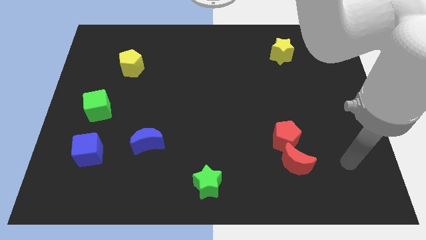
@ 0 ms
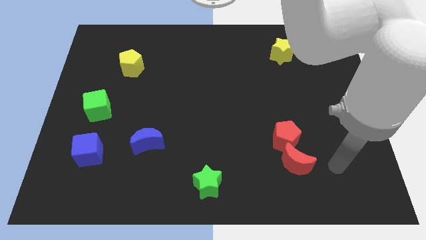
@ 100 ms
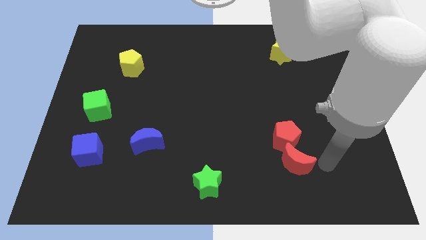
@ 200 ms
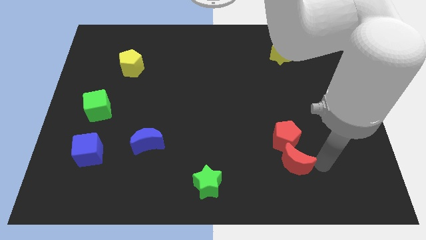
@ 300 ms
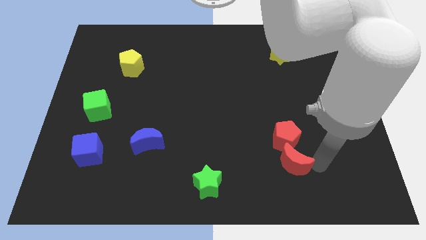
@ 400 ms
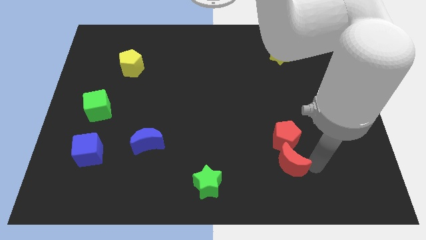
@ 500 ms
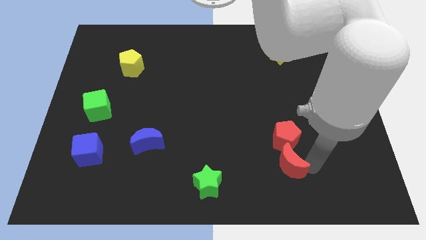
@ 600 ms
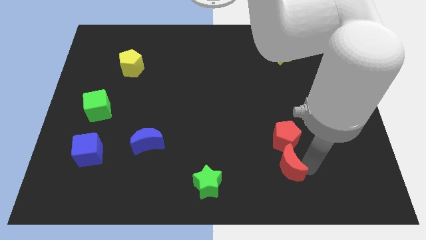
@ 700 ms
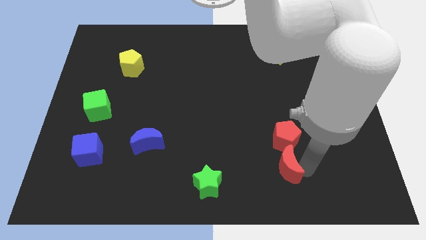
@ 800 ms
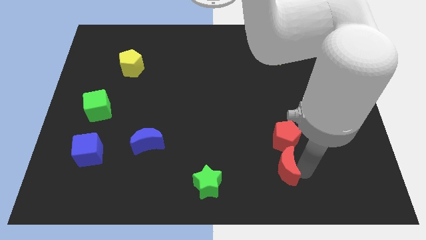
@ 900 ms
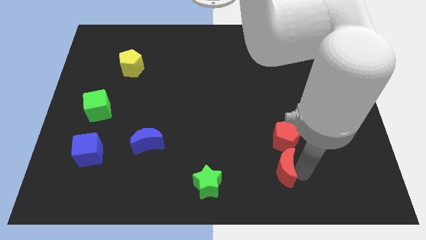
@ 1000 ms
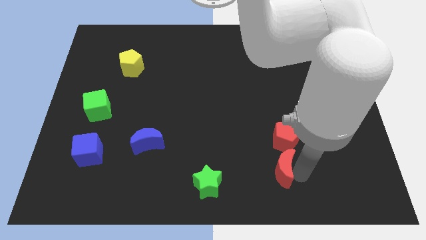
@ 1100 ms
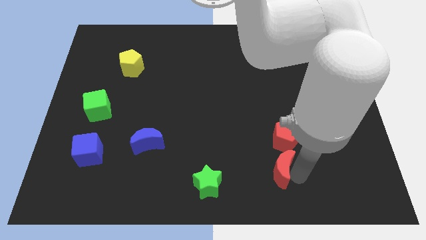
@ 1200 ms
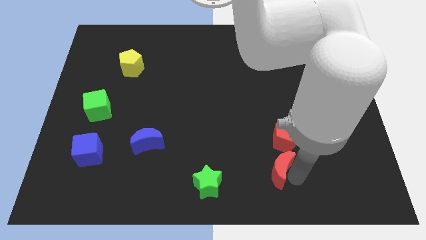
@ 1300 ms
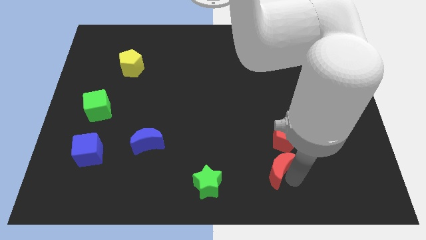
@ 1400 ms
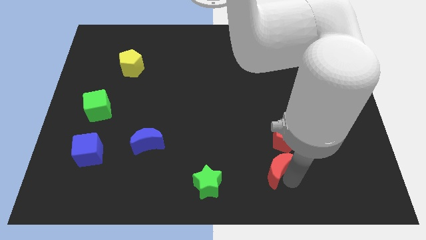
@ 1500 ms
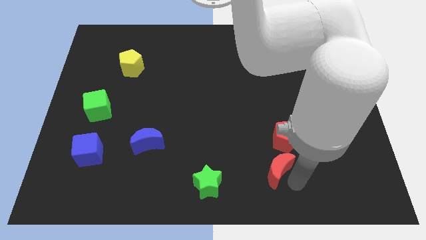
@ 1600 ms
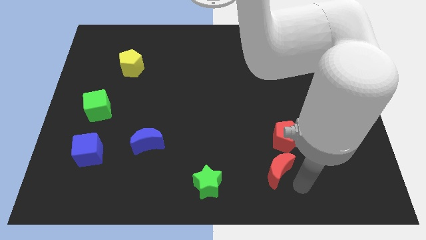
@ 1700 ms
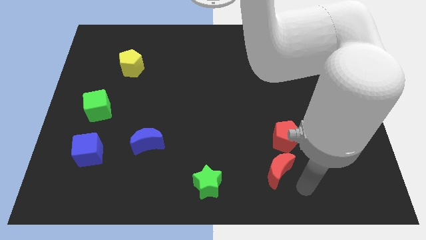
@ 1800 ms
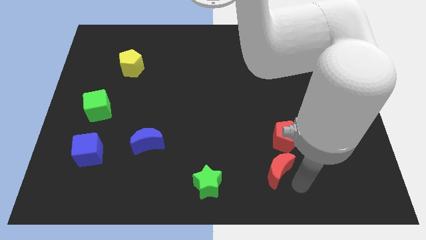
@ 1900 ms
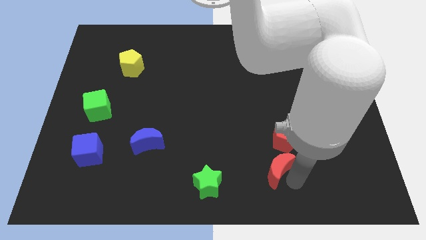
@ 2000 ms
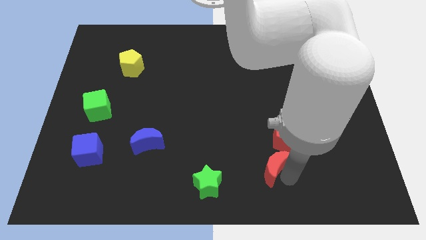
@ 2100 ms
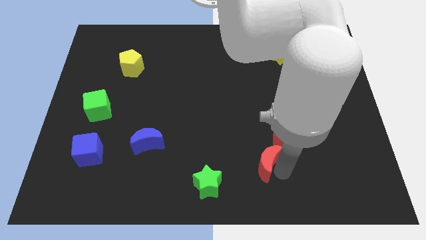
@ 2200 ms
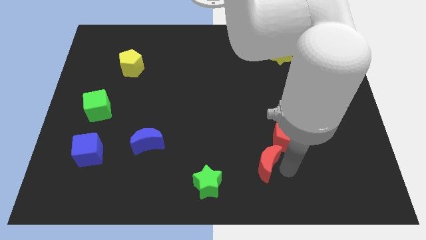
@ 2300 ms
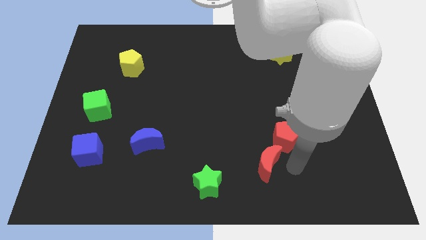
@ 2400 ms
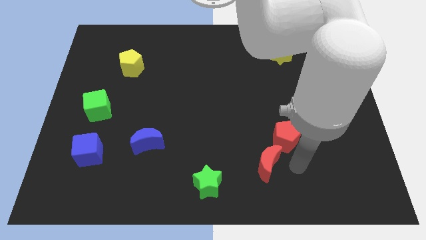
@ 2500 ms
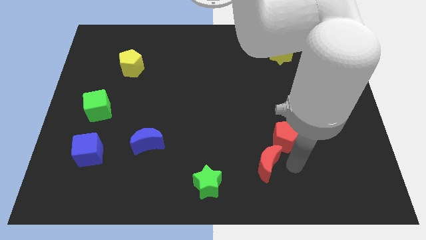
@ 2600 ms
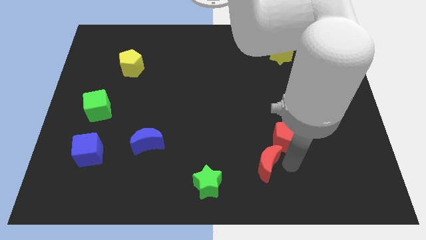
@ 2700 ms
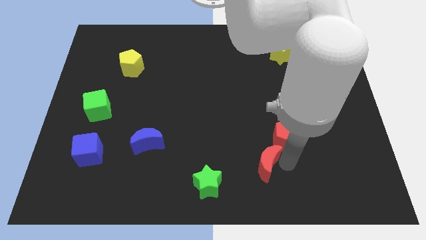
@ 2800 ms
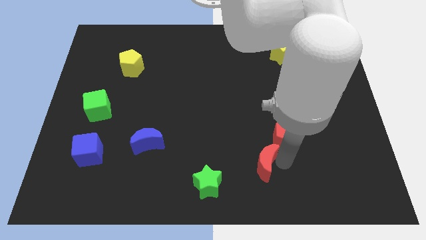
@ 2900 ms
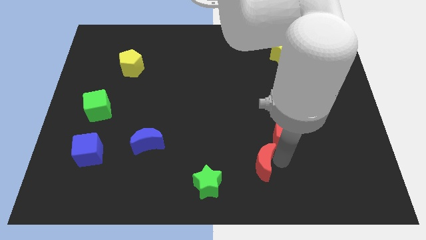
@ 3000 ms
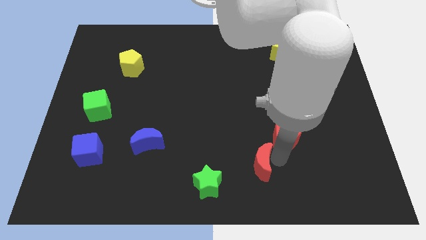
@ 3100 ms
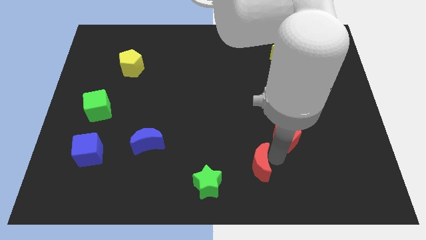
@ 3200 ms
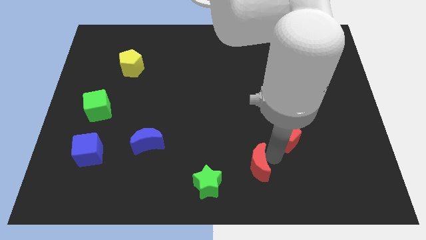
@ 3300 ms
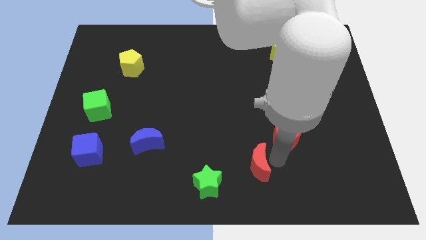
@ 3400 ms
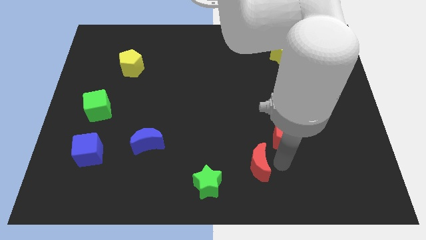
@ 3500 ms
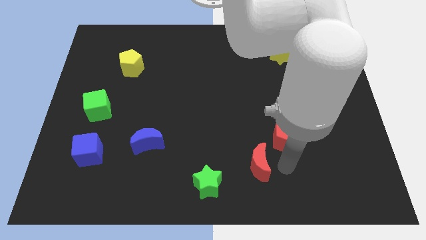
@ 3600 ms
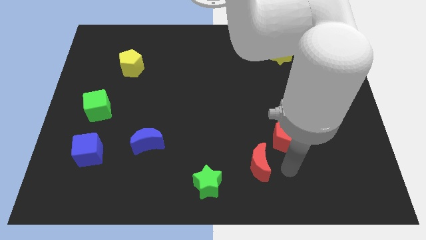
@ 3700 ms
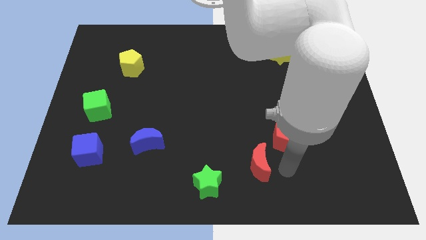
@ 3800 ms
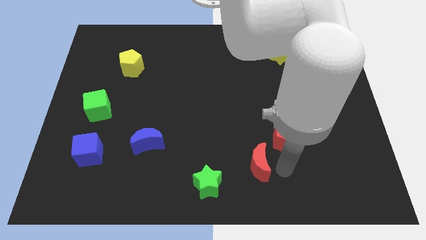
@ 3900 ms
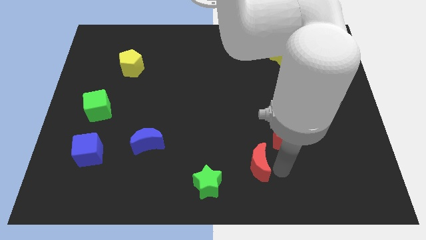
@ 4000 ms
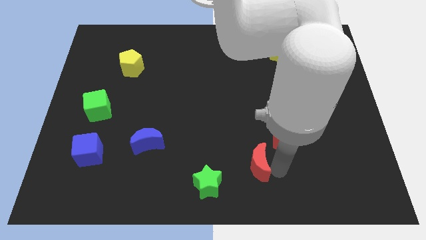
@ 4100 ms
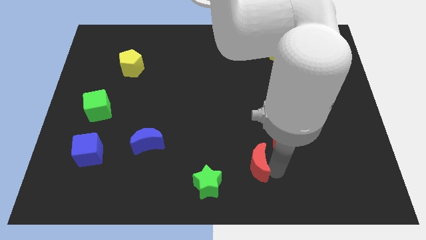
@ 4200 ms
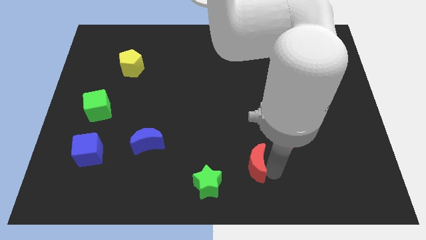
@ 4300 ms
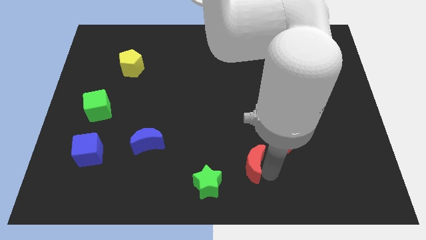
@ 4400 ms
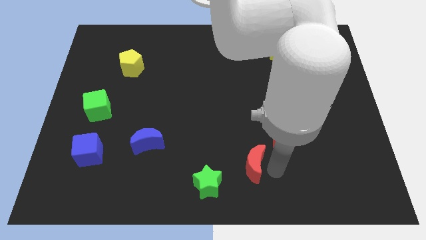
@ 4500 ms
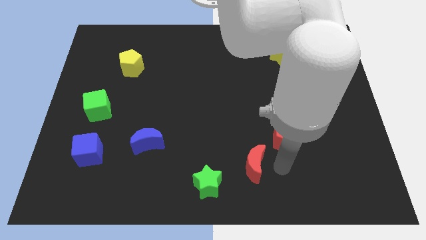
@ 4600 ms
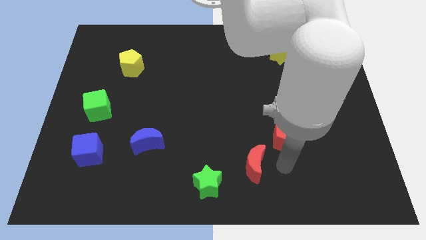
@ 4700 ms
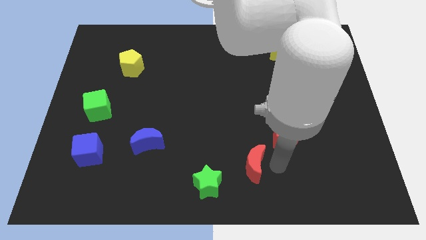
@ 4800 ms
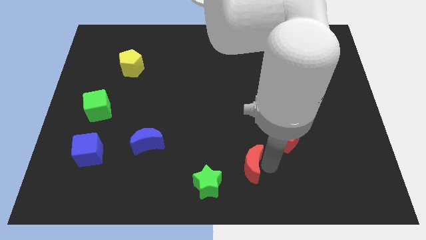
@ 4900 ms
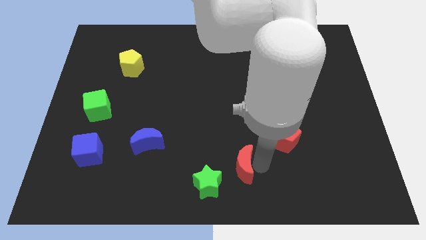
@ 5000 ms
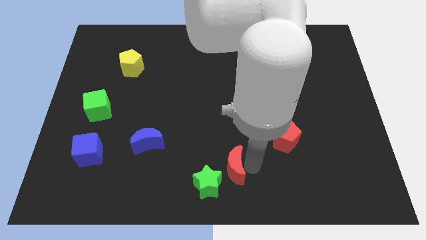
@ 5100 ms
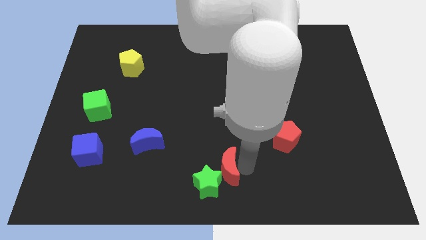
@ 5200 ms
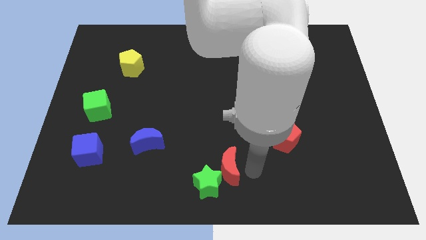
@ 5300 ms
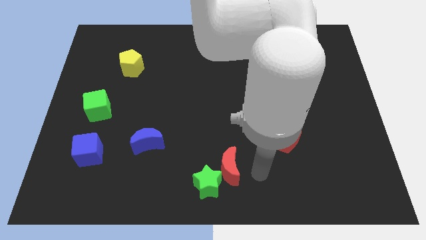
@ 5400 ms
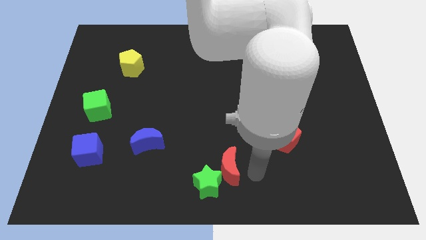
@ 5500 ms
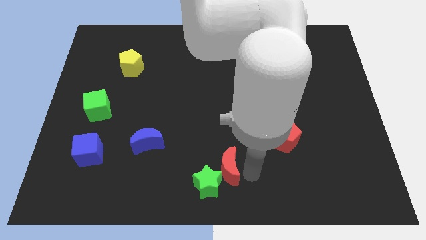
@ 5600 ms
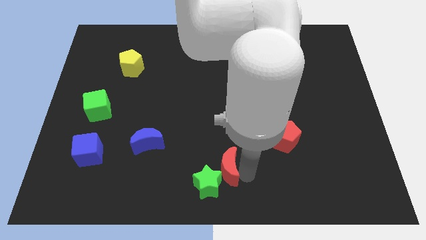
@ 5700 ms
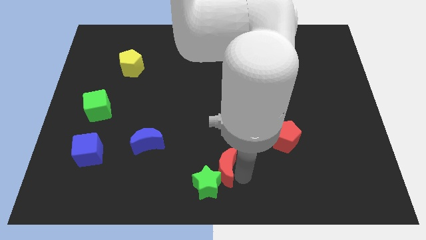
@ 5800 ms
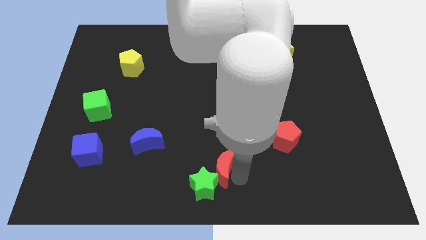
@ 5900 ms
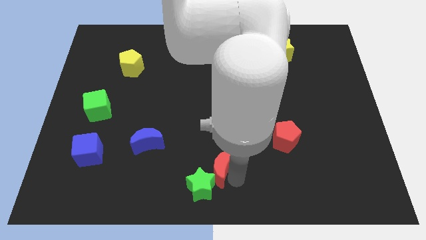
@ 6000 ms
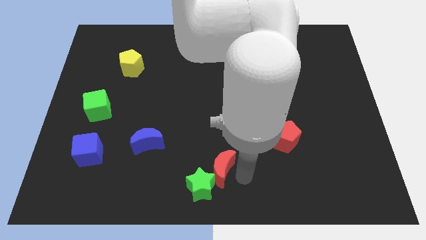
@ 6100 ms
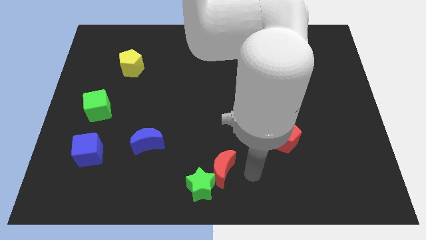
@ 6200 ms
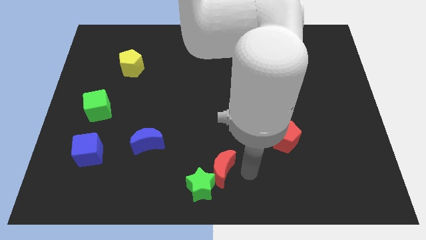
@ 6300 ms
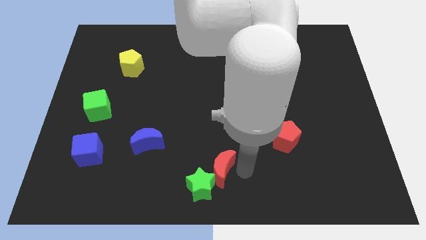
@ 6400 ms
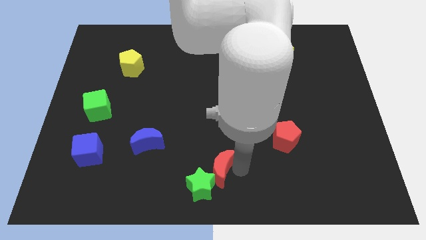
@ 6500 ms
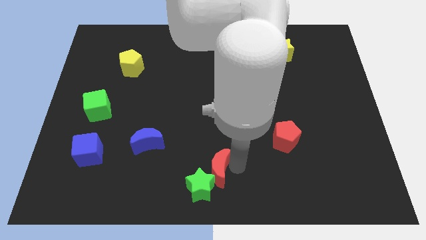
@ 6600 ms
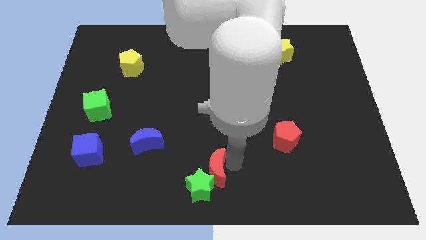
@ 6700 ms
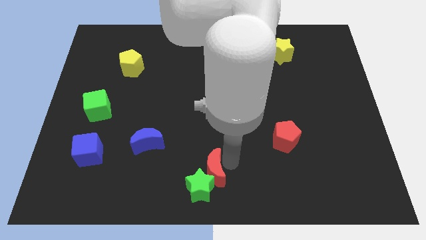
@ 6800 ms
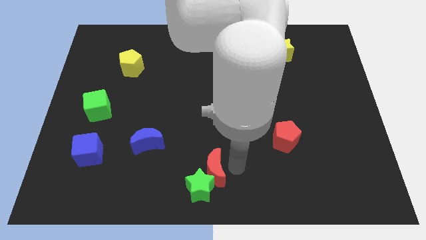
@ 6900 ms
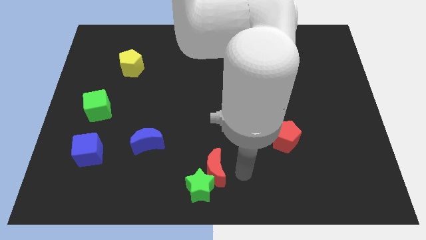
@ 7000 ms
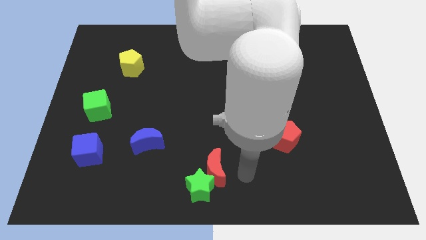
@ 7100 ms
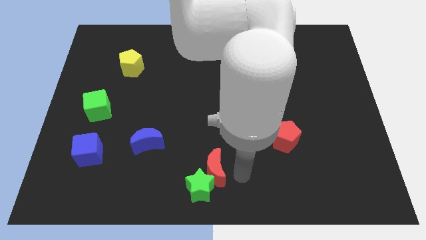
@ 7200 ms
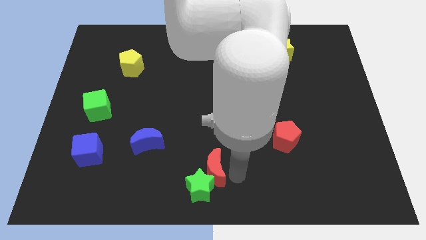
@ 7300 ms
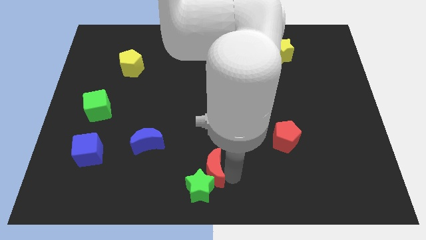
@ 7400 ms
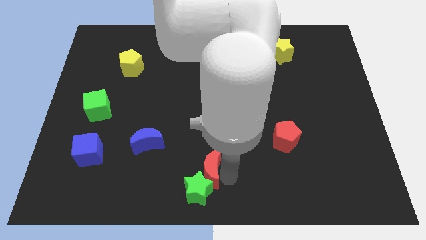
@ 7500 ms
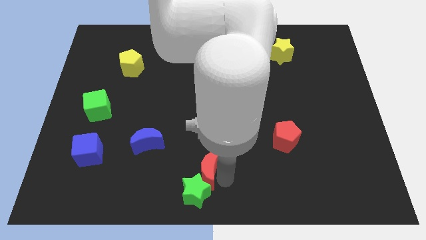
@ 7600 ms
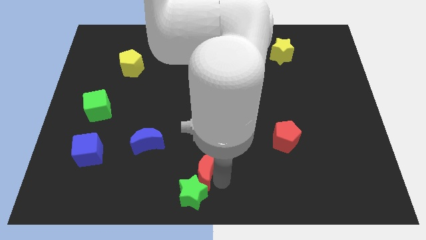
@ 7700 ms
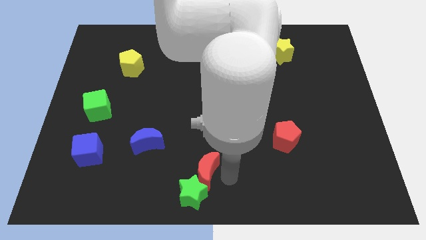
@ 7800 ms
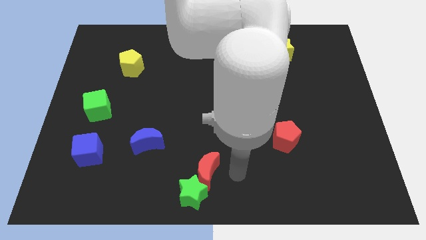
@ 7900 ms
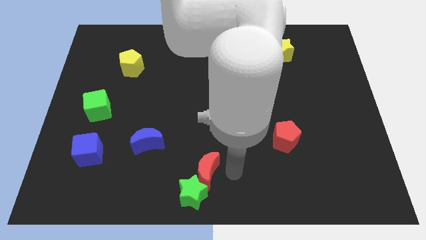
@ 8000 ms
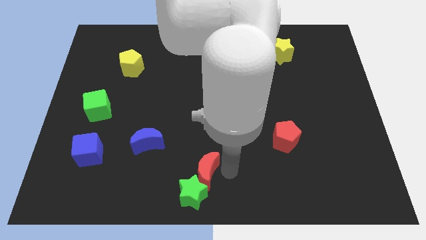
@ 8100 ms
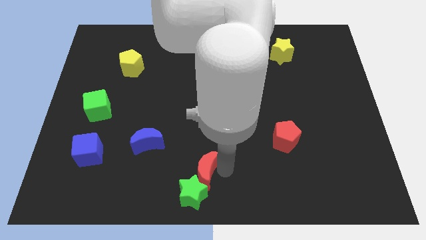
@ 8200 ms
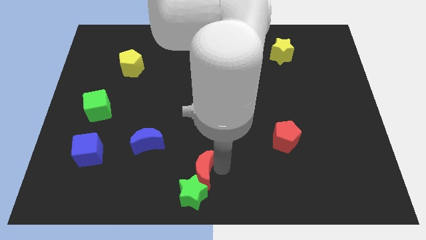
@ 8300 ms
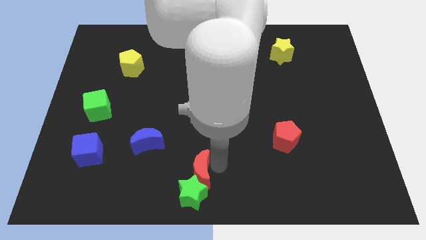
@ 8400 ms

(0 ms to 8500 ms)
push the red moon diagonally up and to the left of the green star
